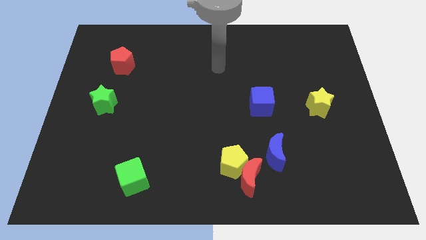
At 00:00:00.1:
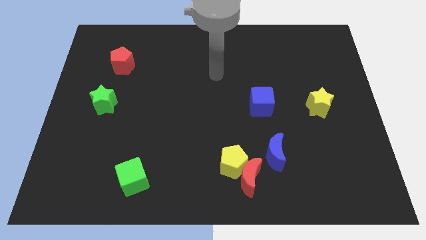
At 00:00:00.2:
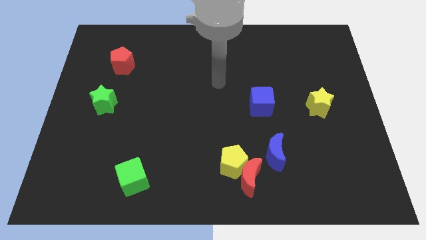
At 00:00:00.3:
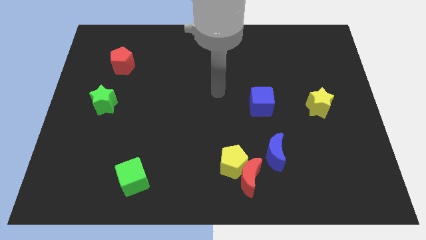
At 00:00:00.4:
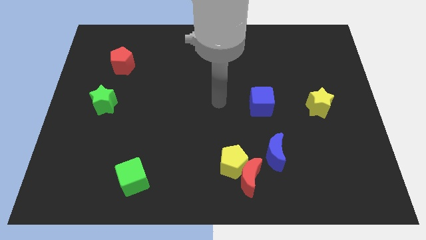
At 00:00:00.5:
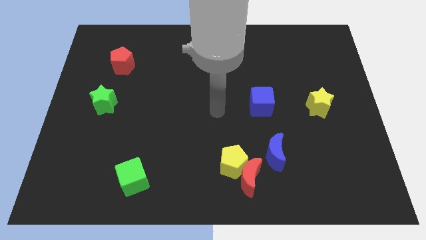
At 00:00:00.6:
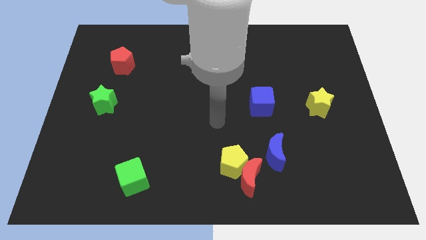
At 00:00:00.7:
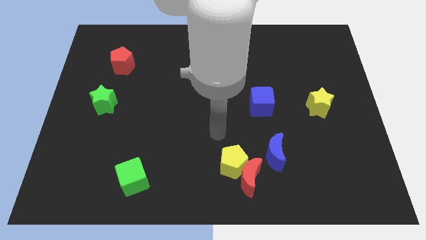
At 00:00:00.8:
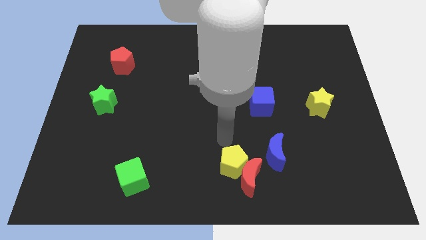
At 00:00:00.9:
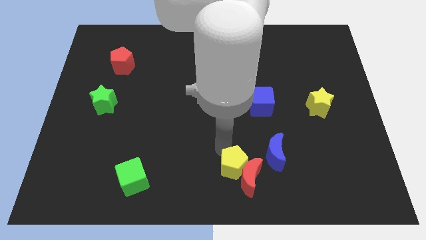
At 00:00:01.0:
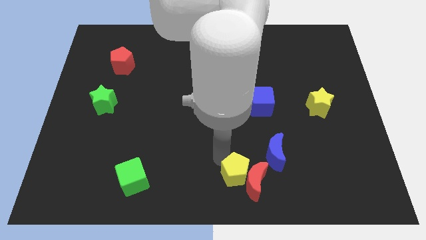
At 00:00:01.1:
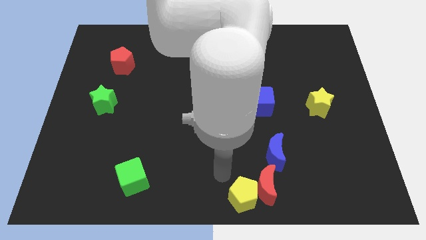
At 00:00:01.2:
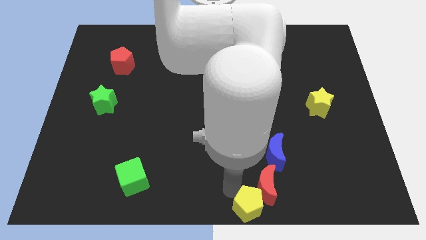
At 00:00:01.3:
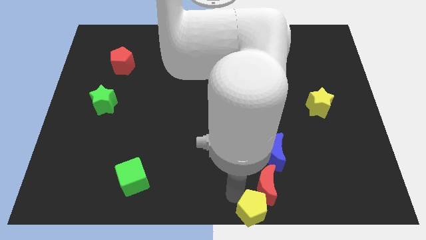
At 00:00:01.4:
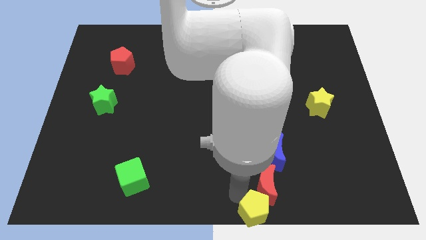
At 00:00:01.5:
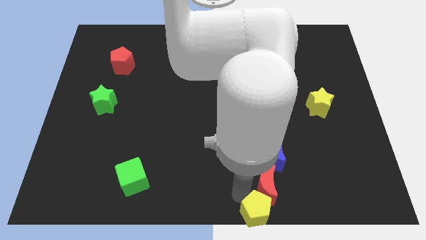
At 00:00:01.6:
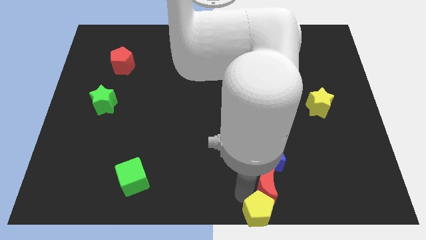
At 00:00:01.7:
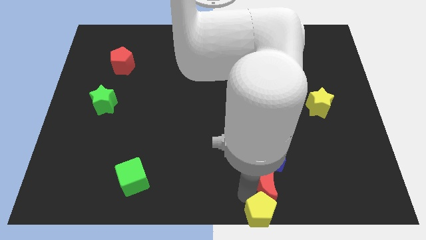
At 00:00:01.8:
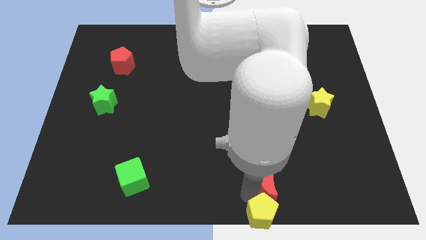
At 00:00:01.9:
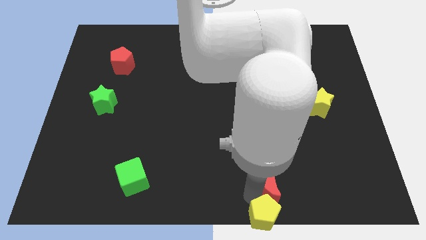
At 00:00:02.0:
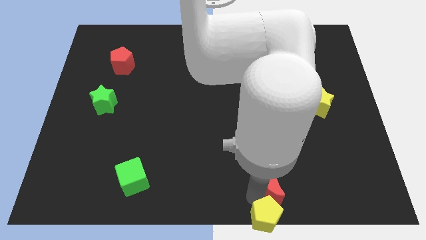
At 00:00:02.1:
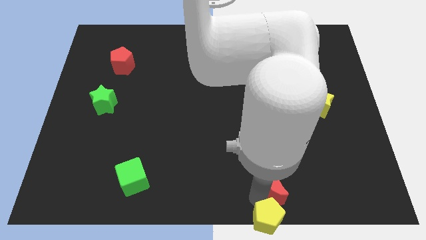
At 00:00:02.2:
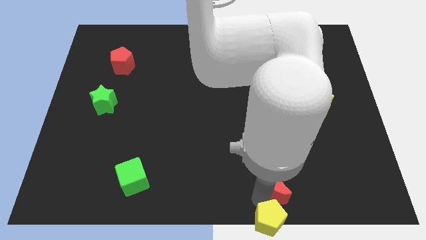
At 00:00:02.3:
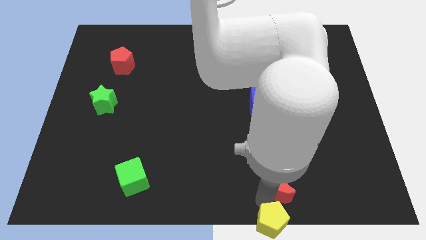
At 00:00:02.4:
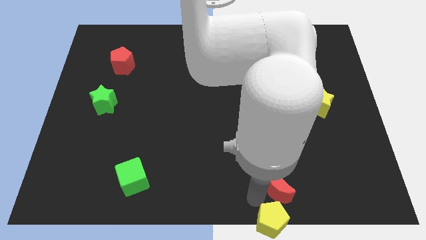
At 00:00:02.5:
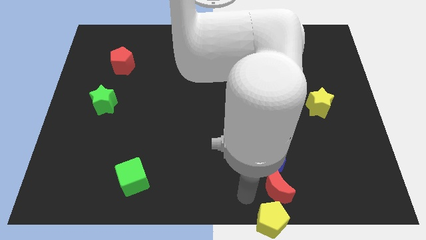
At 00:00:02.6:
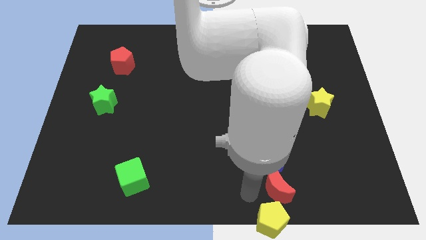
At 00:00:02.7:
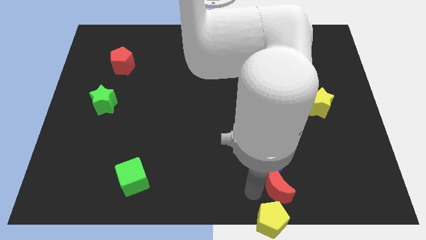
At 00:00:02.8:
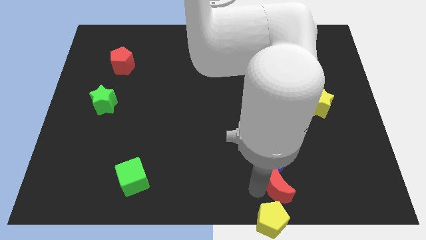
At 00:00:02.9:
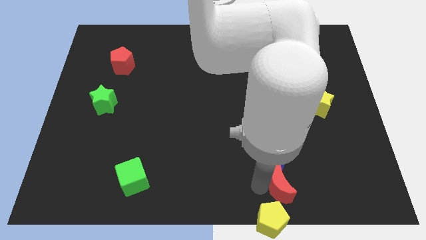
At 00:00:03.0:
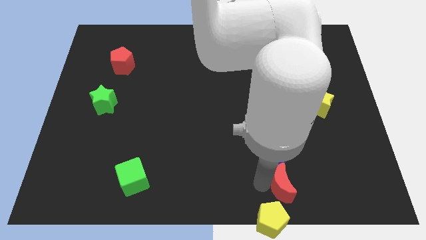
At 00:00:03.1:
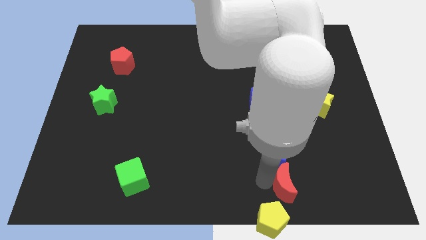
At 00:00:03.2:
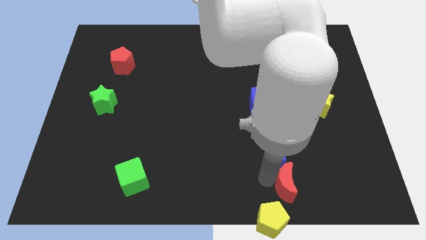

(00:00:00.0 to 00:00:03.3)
slightly push the red moon right

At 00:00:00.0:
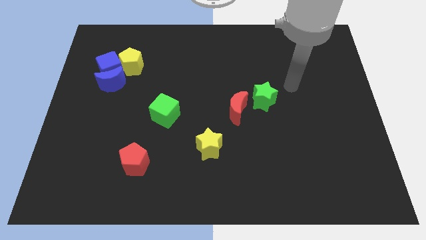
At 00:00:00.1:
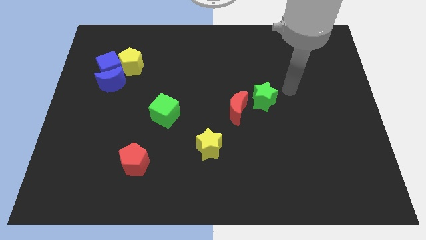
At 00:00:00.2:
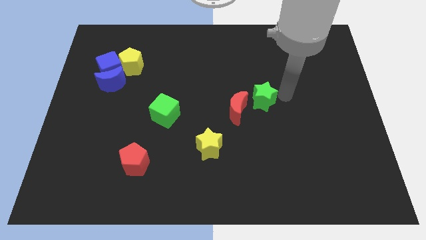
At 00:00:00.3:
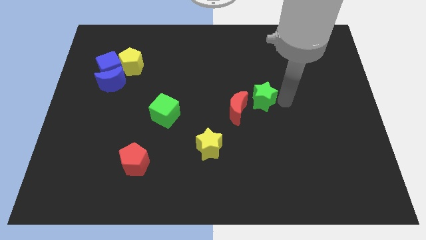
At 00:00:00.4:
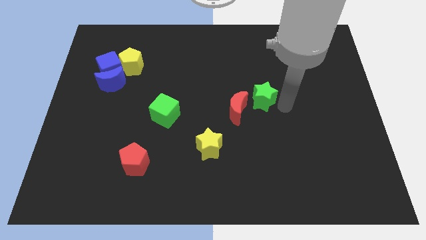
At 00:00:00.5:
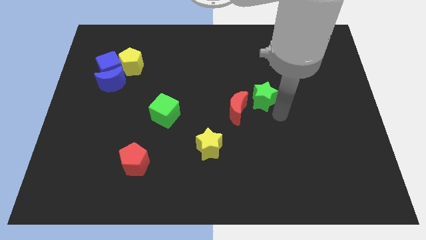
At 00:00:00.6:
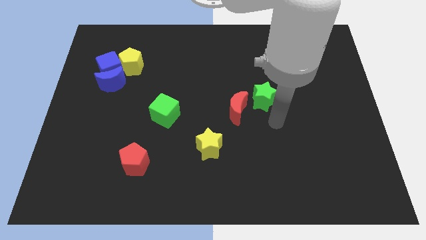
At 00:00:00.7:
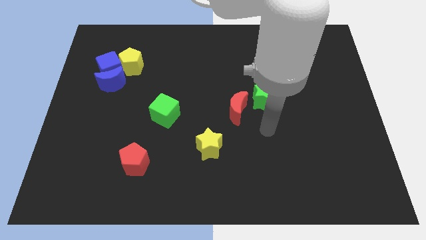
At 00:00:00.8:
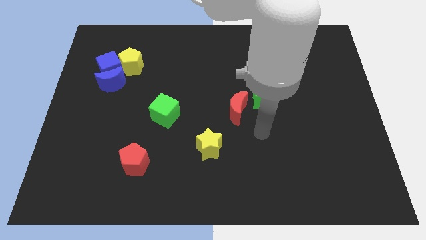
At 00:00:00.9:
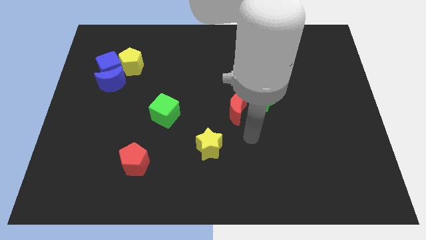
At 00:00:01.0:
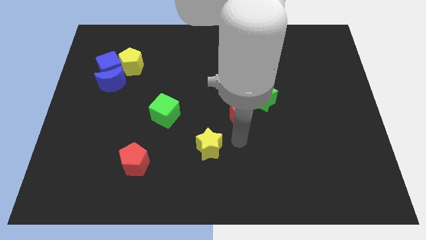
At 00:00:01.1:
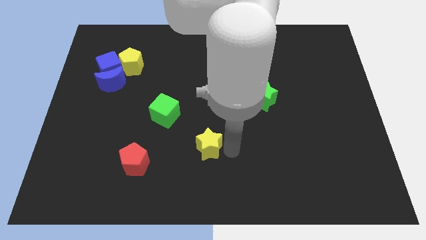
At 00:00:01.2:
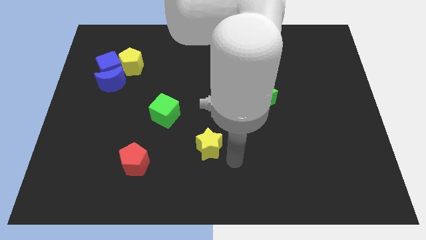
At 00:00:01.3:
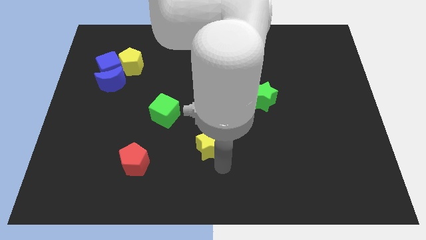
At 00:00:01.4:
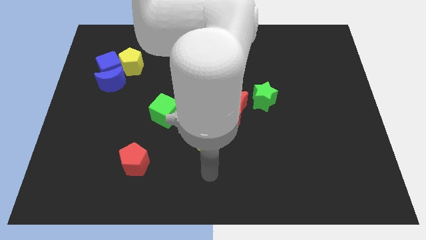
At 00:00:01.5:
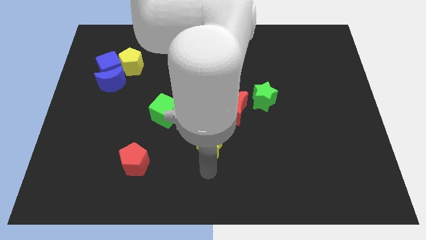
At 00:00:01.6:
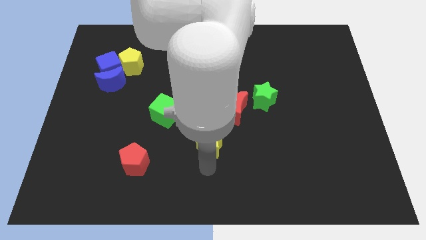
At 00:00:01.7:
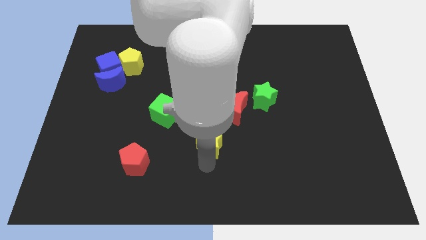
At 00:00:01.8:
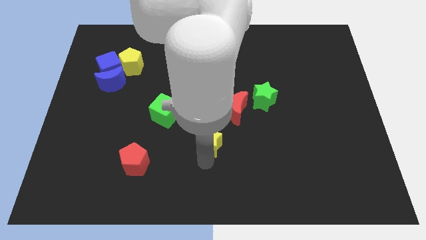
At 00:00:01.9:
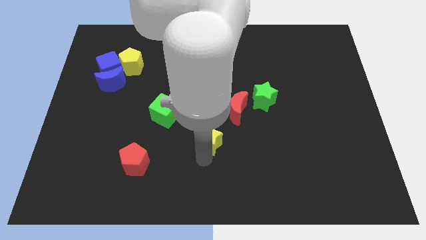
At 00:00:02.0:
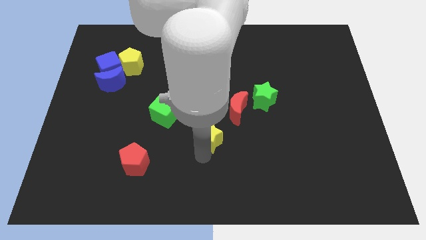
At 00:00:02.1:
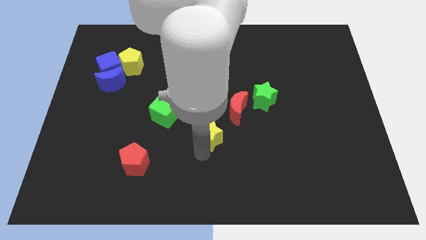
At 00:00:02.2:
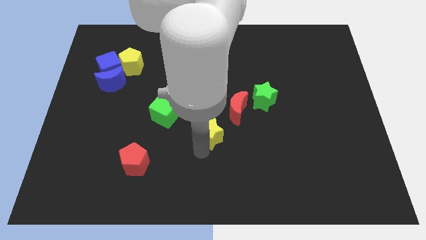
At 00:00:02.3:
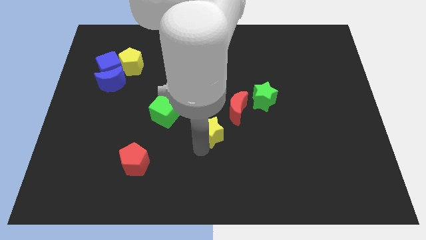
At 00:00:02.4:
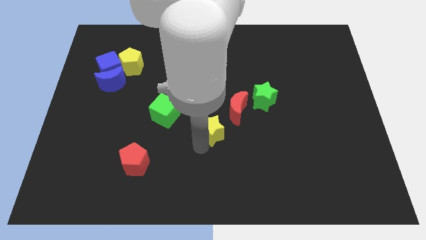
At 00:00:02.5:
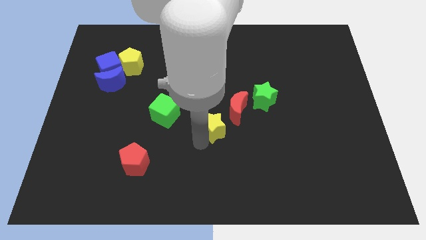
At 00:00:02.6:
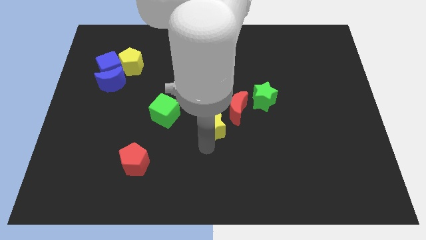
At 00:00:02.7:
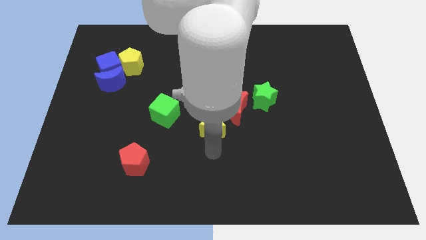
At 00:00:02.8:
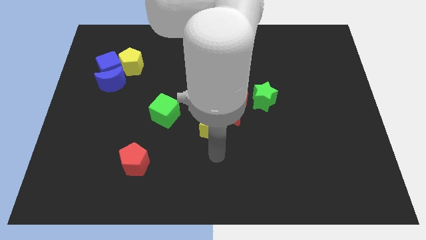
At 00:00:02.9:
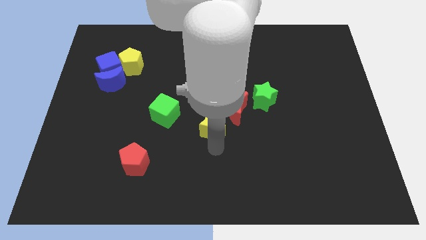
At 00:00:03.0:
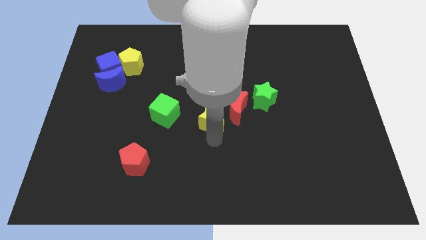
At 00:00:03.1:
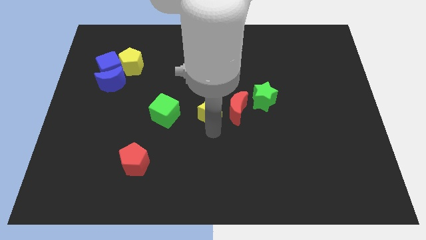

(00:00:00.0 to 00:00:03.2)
push the yellow star a bit up

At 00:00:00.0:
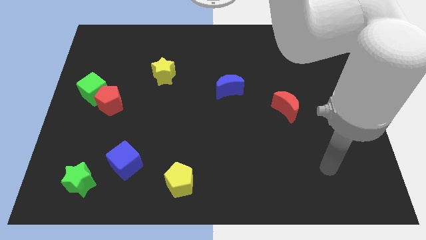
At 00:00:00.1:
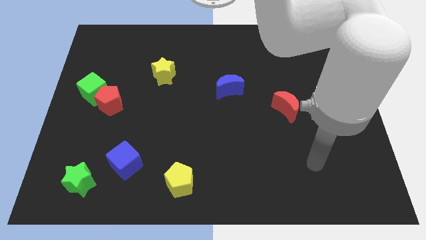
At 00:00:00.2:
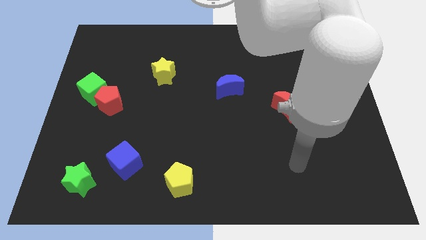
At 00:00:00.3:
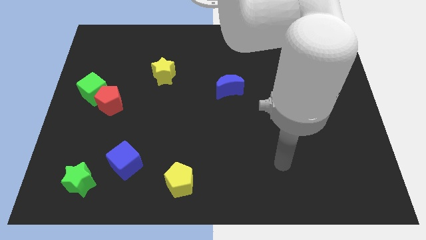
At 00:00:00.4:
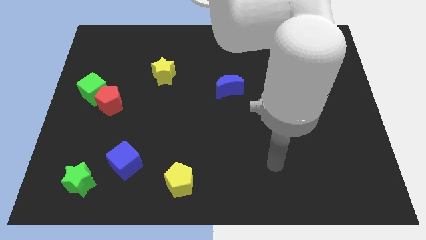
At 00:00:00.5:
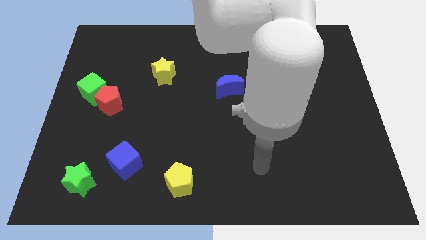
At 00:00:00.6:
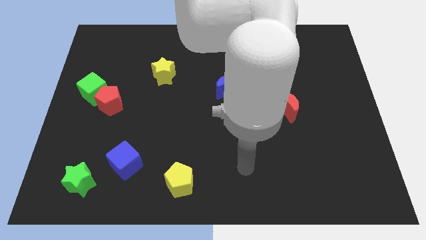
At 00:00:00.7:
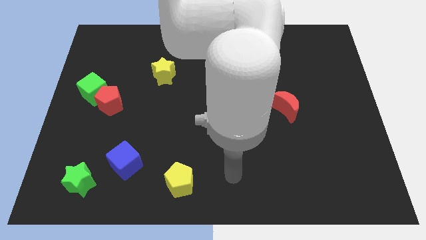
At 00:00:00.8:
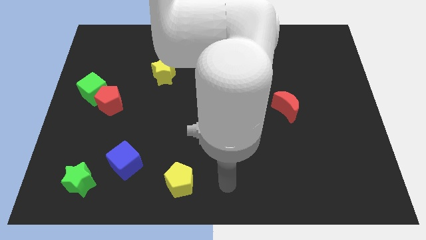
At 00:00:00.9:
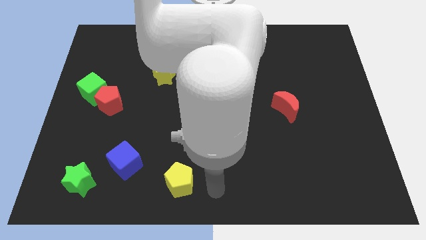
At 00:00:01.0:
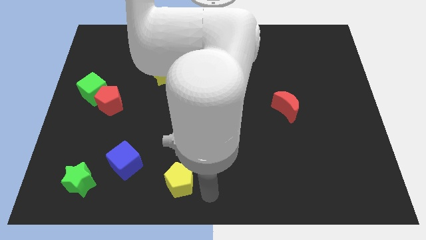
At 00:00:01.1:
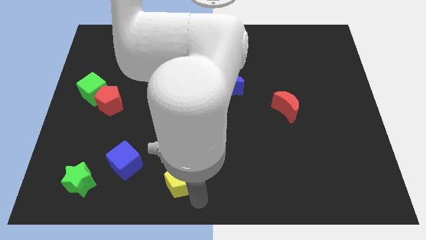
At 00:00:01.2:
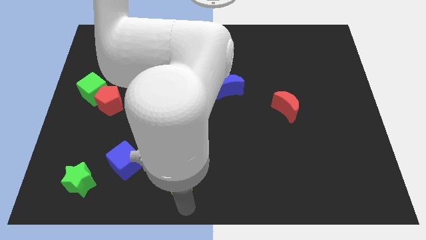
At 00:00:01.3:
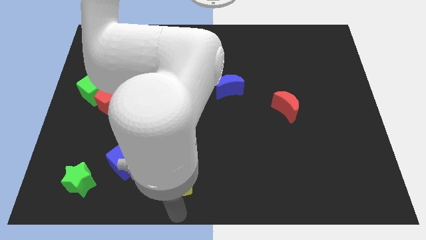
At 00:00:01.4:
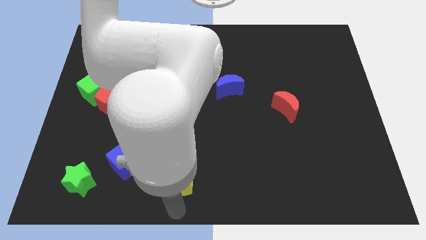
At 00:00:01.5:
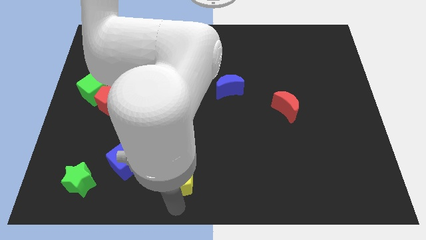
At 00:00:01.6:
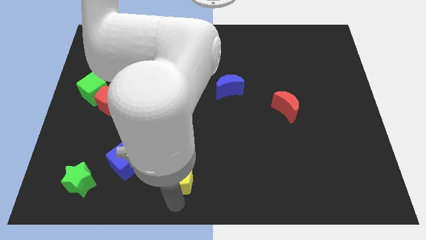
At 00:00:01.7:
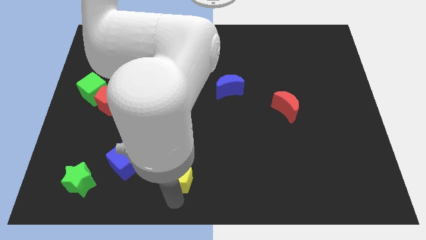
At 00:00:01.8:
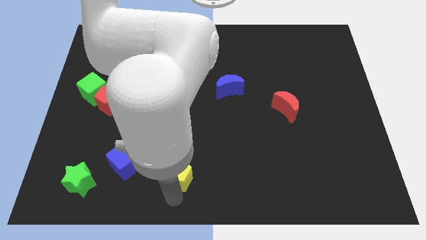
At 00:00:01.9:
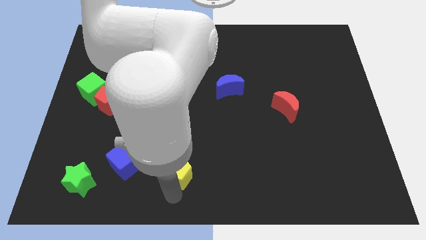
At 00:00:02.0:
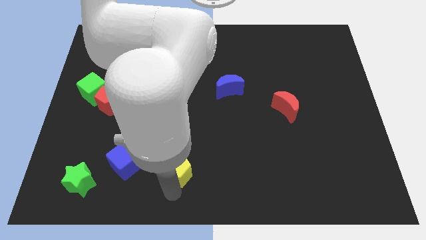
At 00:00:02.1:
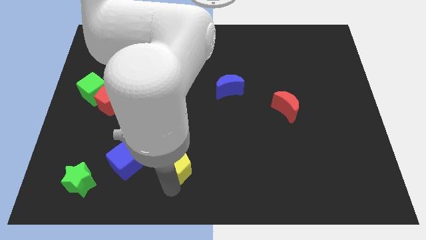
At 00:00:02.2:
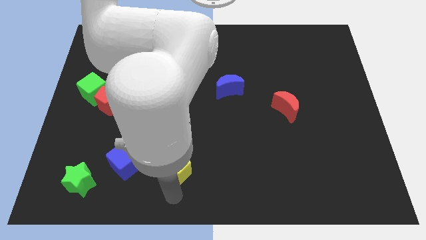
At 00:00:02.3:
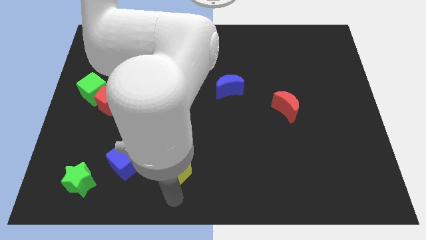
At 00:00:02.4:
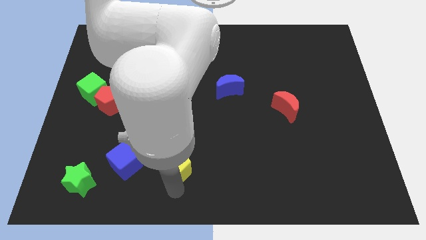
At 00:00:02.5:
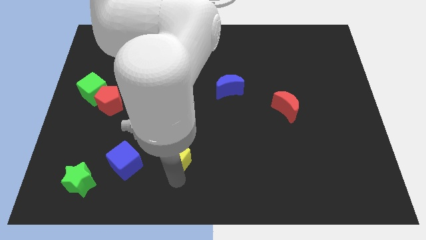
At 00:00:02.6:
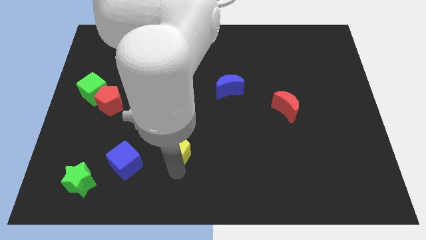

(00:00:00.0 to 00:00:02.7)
slightly push the yellow pentagon upwards
